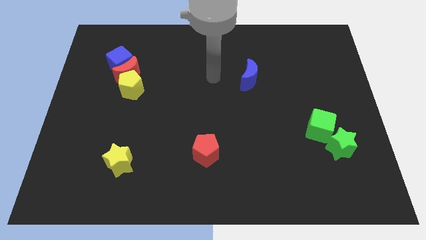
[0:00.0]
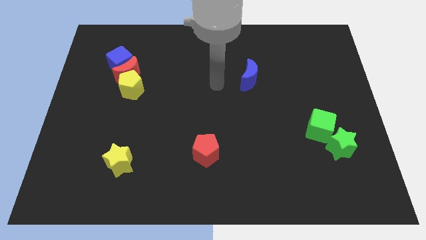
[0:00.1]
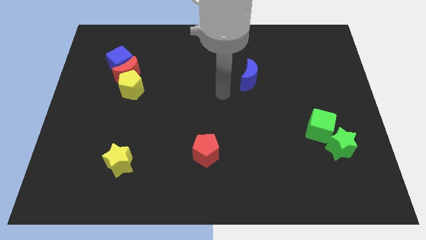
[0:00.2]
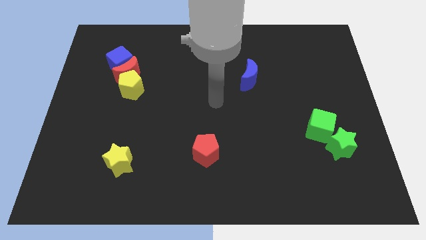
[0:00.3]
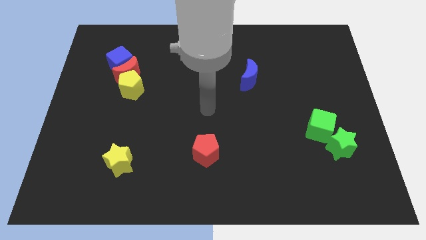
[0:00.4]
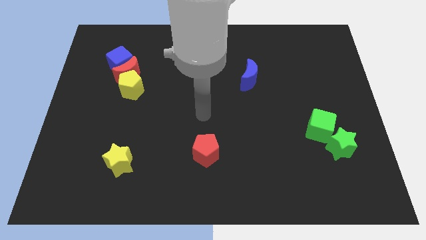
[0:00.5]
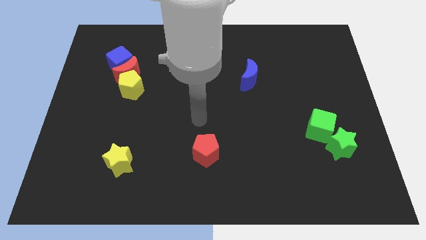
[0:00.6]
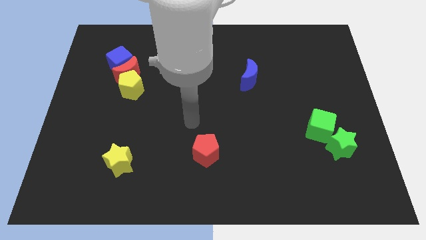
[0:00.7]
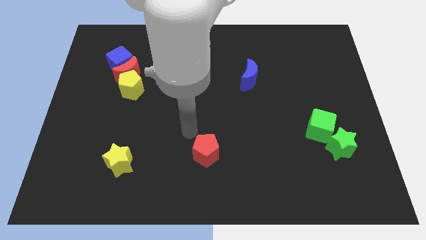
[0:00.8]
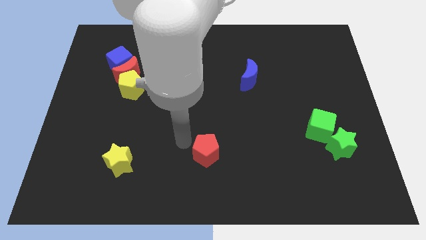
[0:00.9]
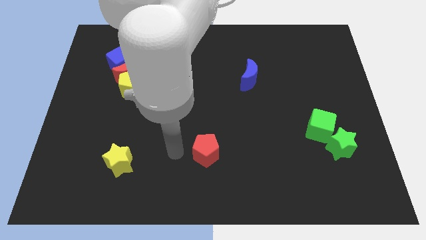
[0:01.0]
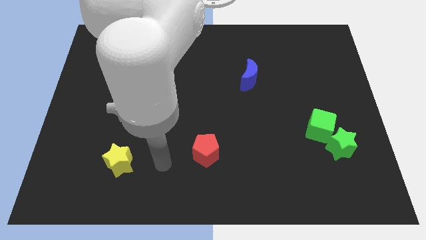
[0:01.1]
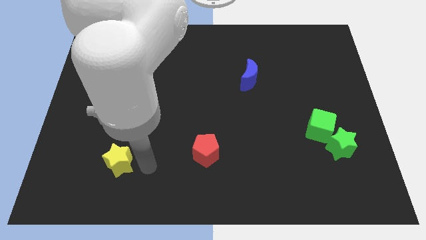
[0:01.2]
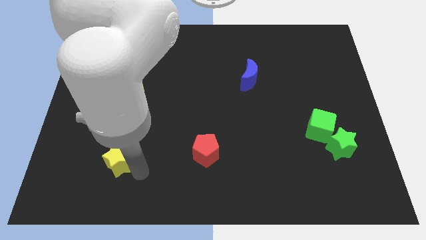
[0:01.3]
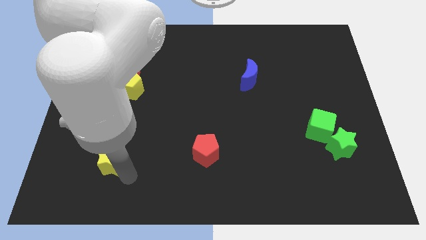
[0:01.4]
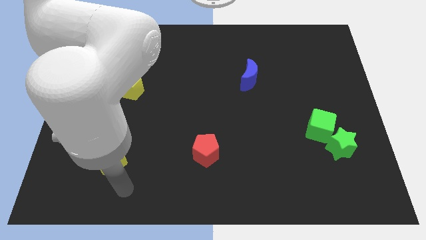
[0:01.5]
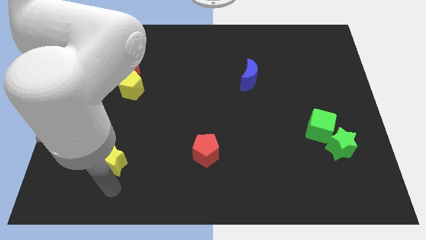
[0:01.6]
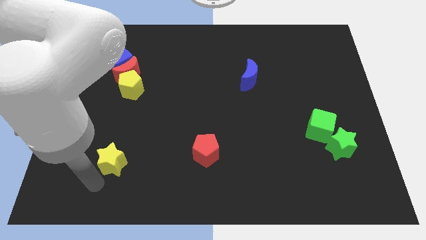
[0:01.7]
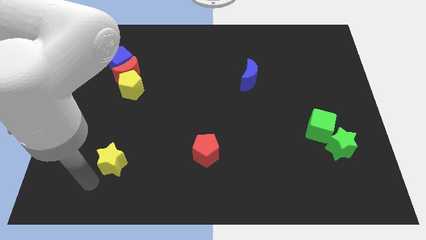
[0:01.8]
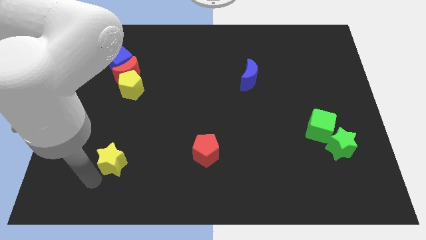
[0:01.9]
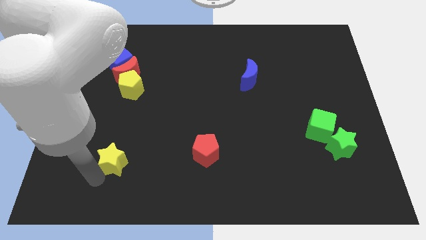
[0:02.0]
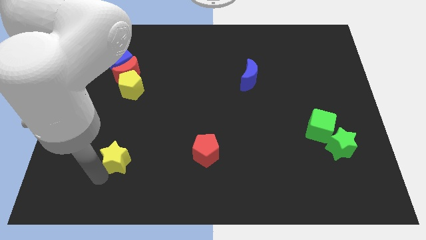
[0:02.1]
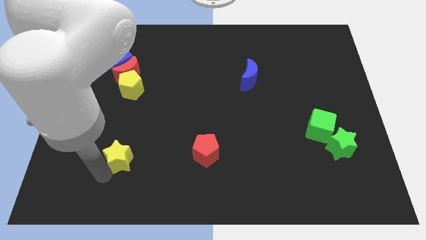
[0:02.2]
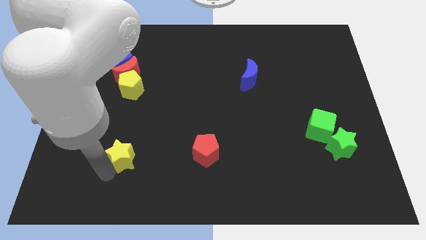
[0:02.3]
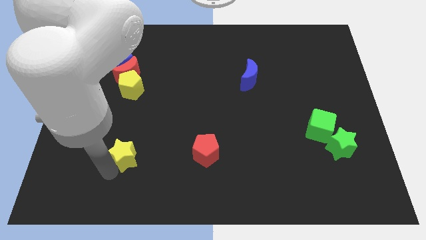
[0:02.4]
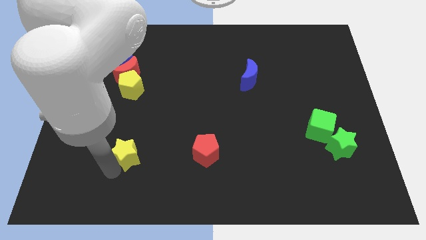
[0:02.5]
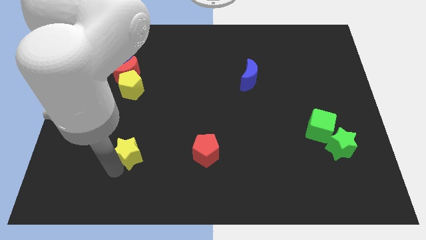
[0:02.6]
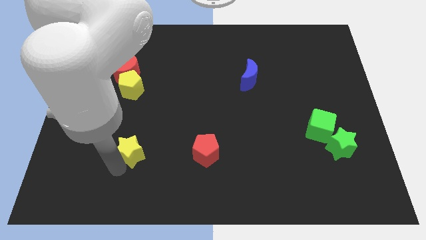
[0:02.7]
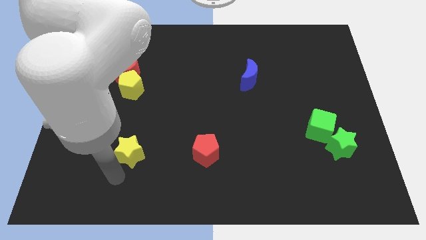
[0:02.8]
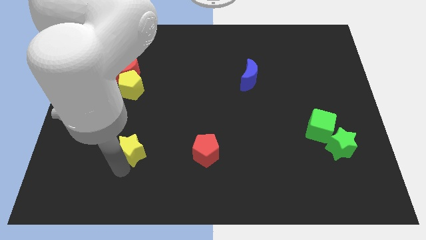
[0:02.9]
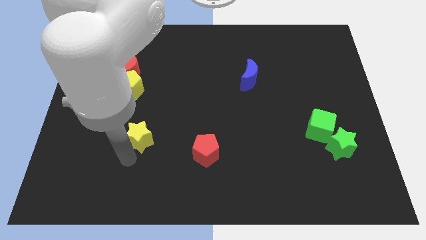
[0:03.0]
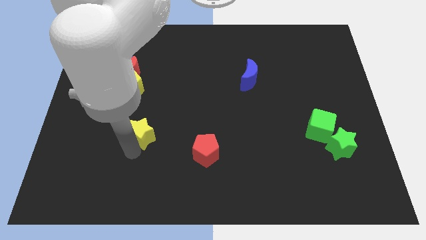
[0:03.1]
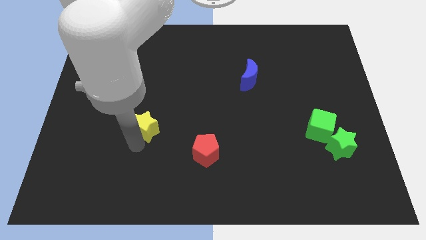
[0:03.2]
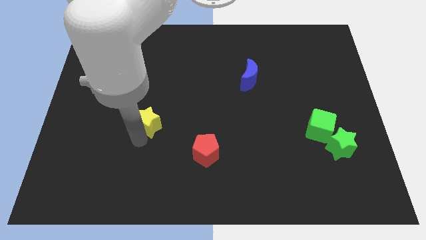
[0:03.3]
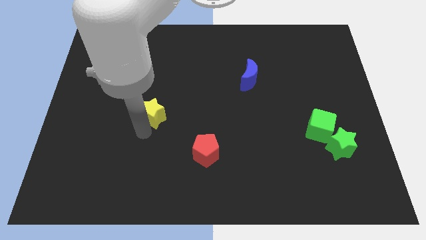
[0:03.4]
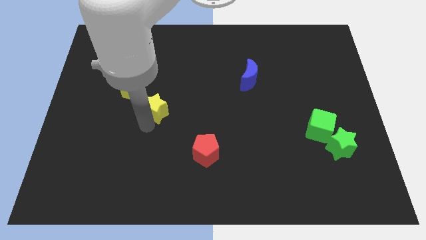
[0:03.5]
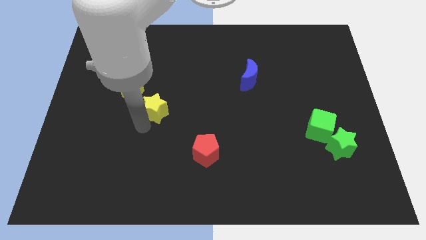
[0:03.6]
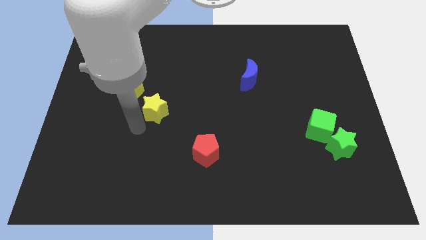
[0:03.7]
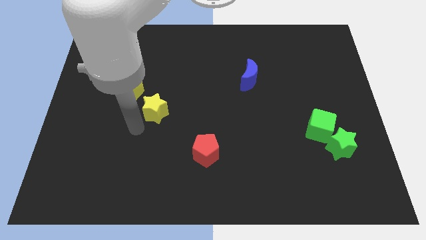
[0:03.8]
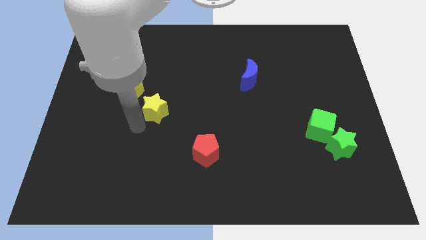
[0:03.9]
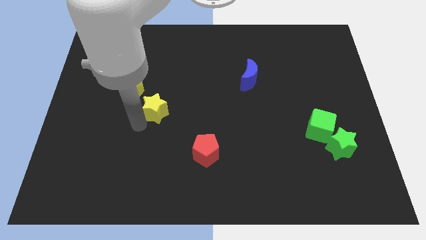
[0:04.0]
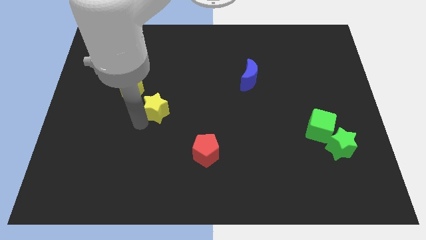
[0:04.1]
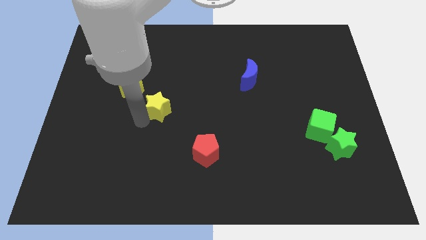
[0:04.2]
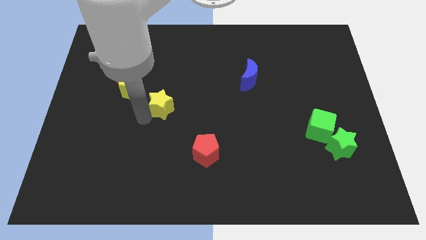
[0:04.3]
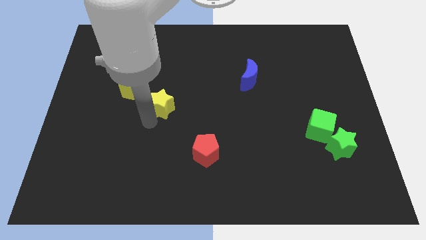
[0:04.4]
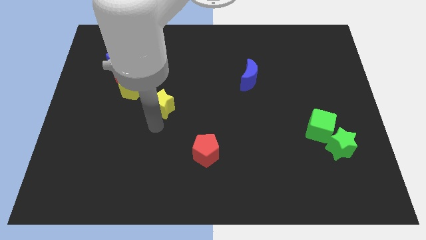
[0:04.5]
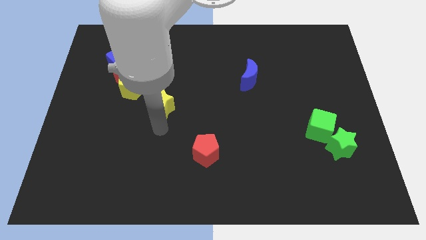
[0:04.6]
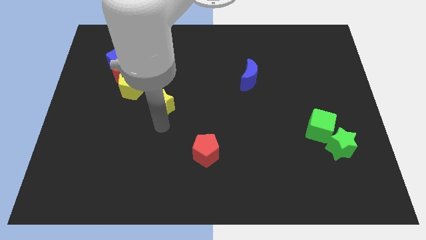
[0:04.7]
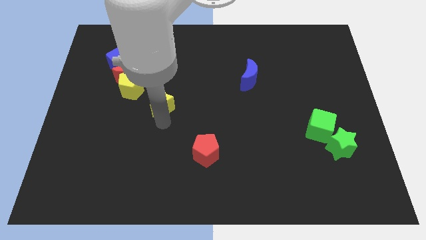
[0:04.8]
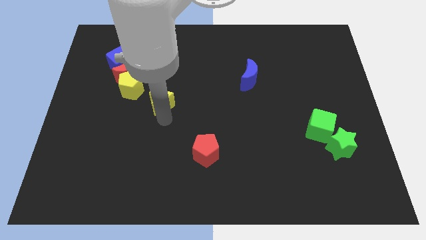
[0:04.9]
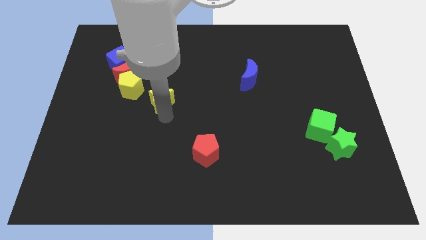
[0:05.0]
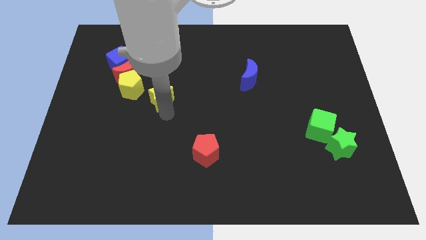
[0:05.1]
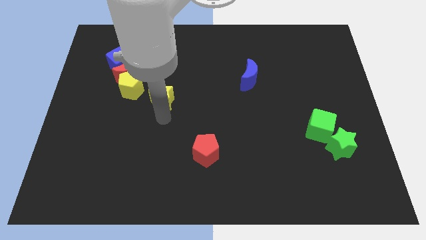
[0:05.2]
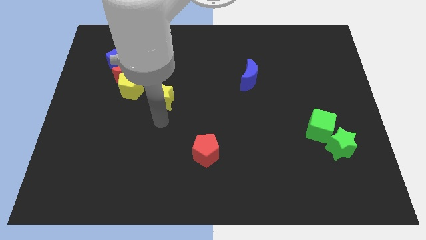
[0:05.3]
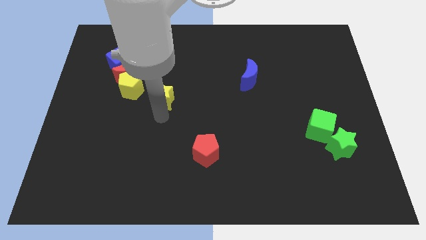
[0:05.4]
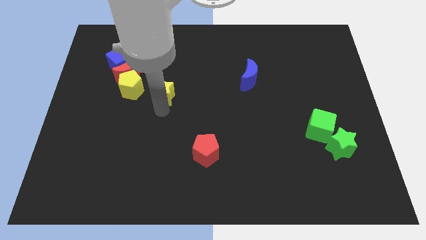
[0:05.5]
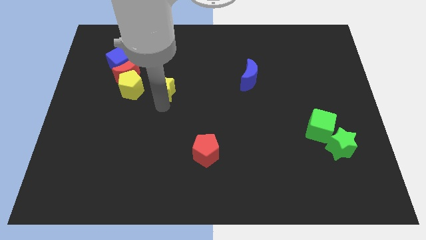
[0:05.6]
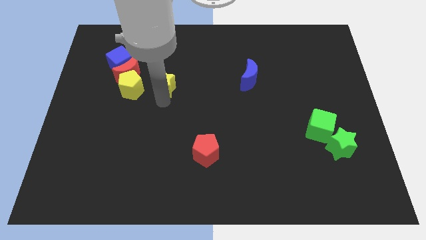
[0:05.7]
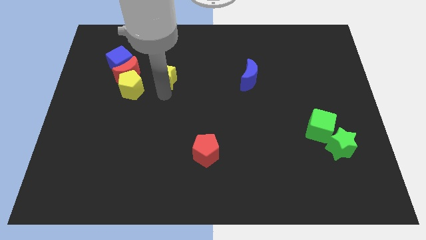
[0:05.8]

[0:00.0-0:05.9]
push the yellow star to the right of the blue cube

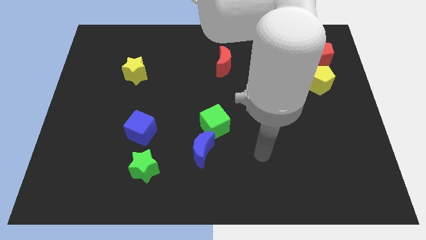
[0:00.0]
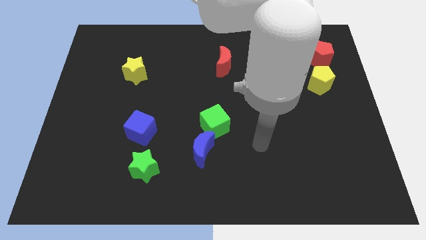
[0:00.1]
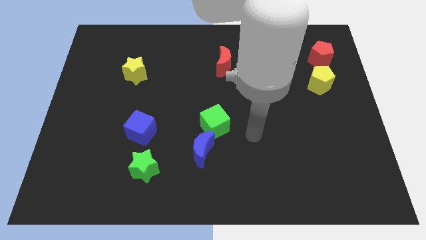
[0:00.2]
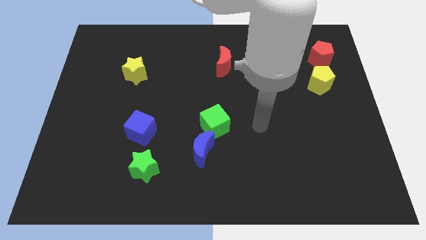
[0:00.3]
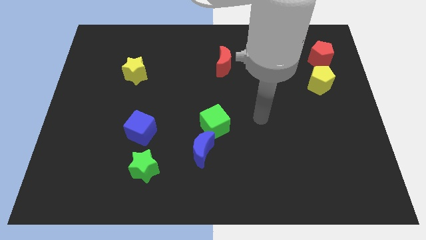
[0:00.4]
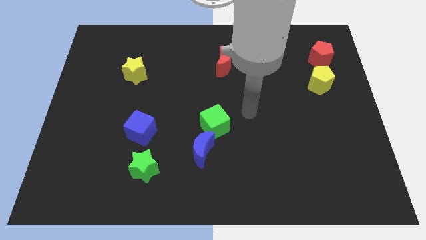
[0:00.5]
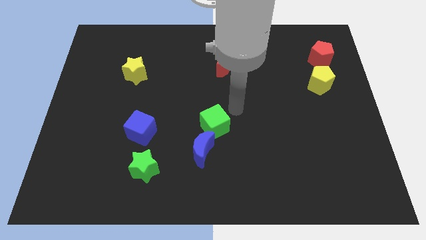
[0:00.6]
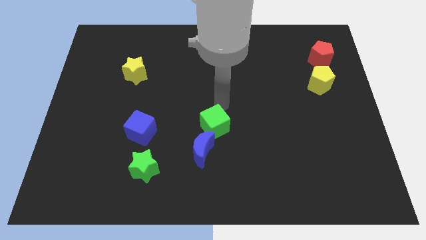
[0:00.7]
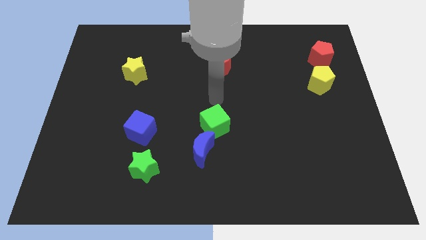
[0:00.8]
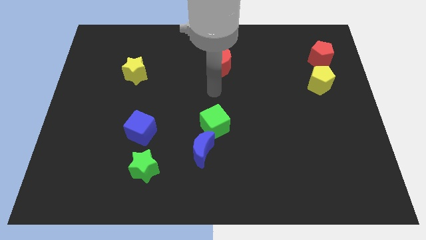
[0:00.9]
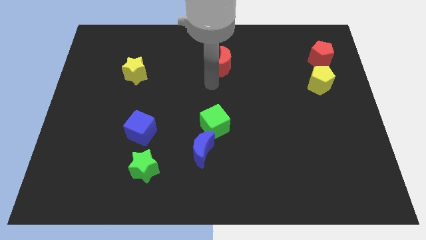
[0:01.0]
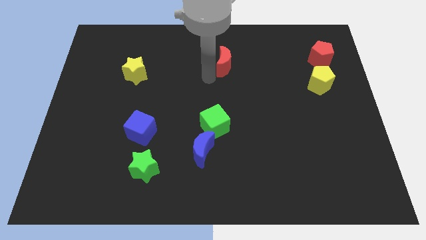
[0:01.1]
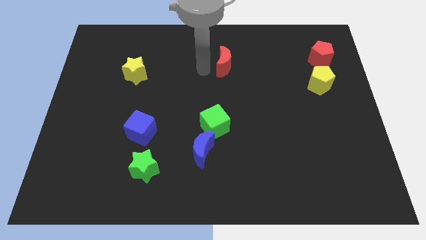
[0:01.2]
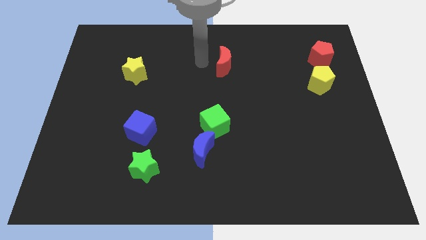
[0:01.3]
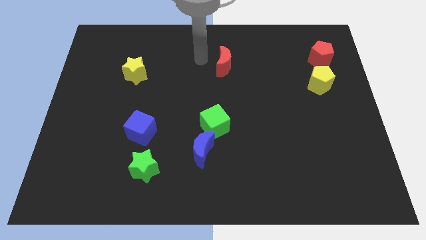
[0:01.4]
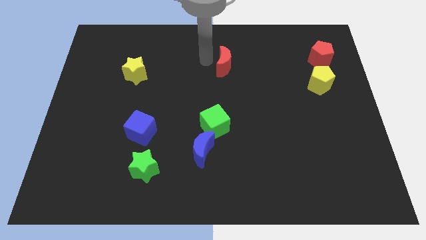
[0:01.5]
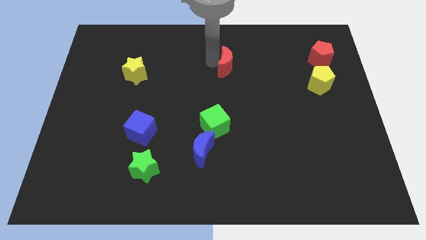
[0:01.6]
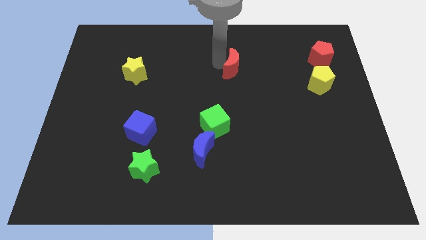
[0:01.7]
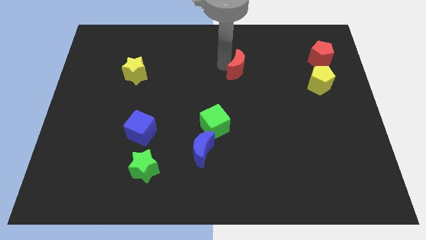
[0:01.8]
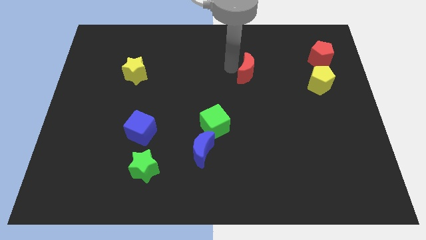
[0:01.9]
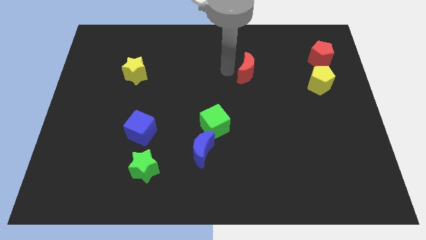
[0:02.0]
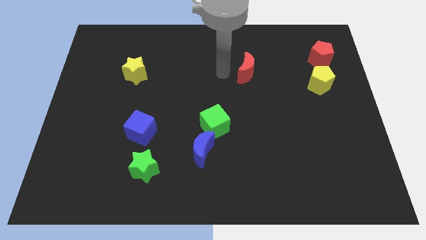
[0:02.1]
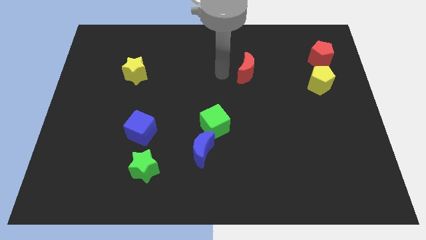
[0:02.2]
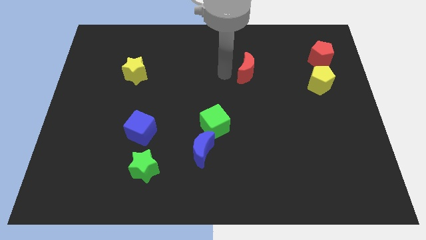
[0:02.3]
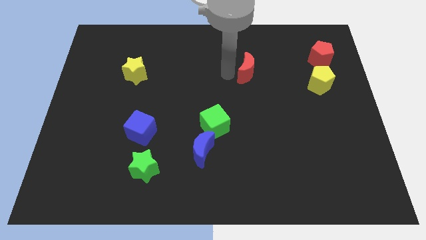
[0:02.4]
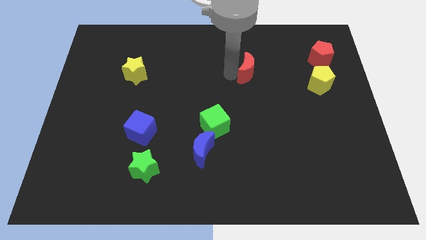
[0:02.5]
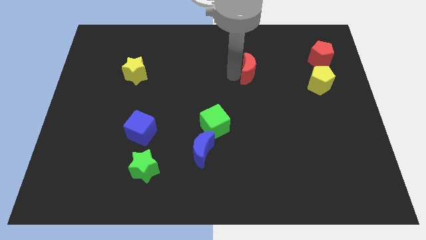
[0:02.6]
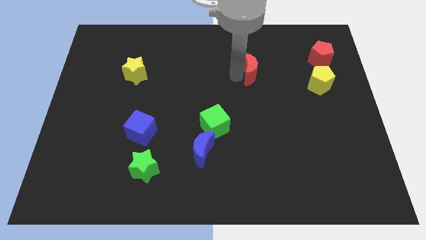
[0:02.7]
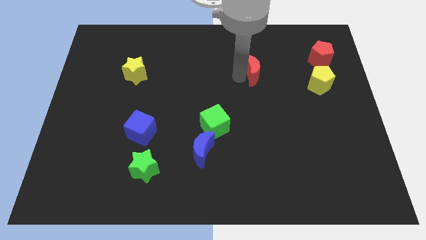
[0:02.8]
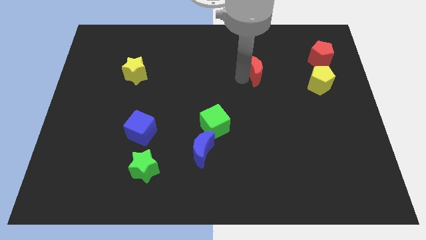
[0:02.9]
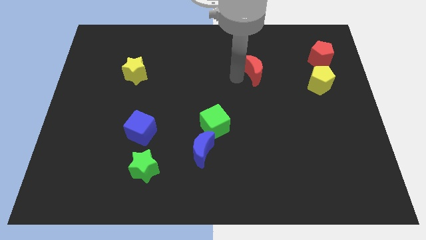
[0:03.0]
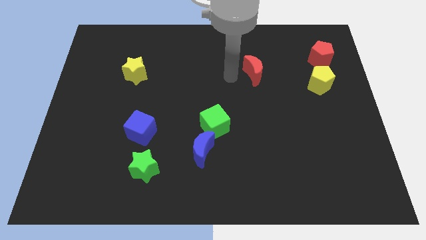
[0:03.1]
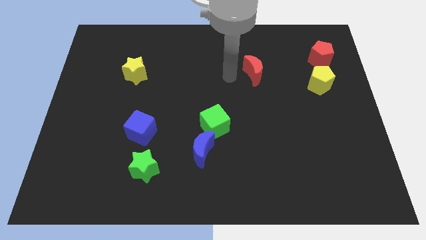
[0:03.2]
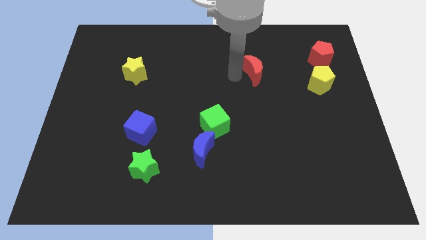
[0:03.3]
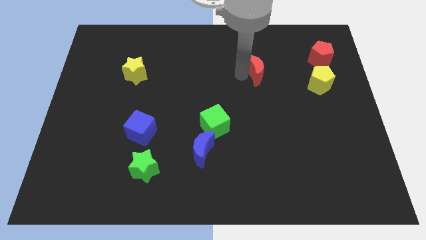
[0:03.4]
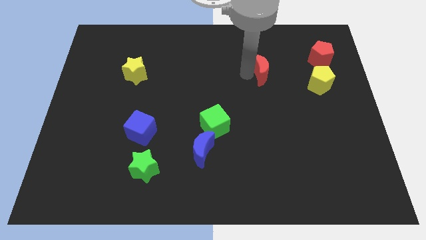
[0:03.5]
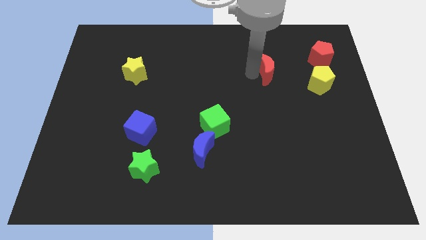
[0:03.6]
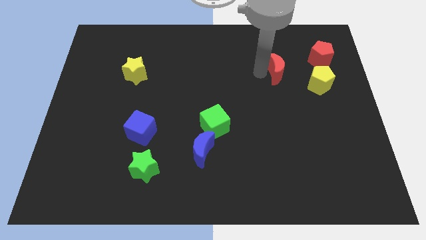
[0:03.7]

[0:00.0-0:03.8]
put the red moon to the top left of the yellow pentagon
